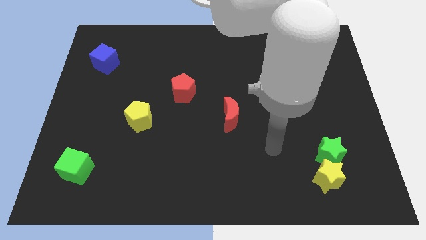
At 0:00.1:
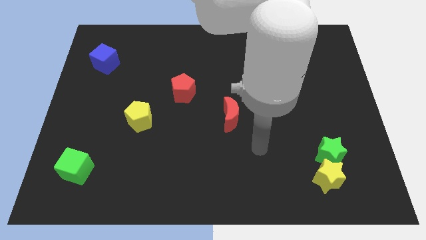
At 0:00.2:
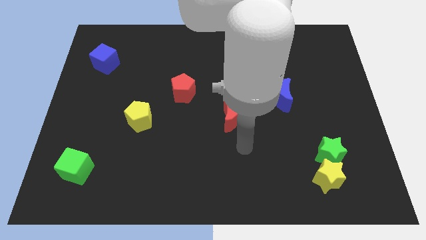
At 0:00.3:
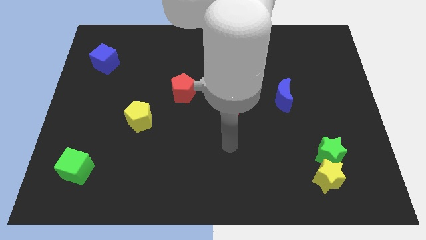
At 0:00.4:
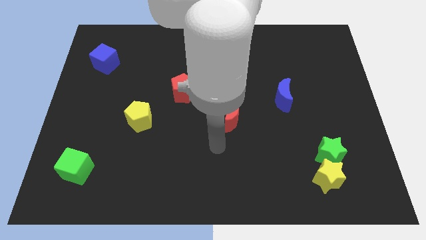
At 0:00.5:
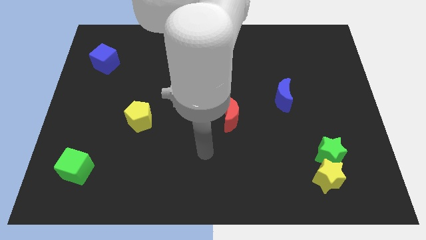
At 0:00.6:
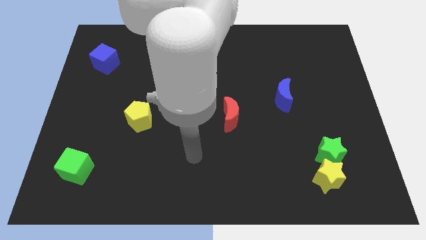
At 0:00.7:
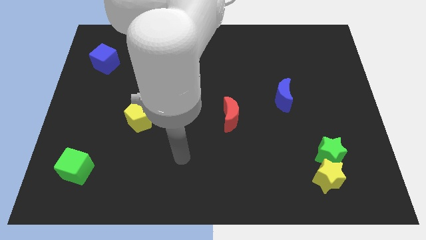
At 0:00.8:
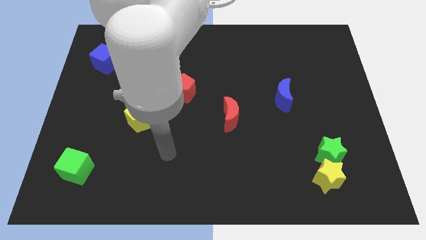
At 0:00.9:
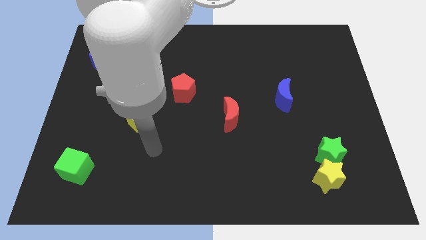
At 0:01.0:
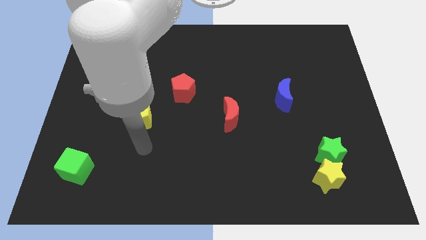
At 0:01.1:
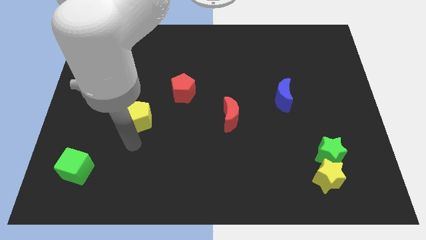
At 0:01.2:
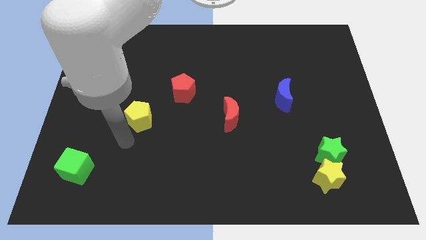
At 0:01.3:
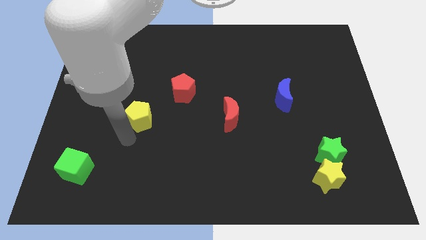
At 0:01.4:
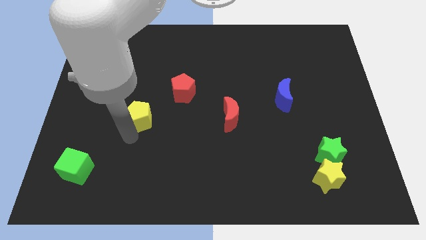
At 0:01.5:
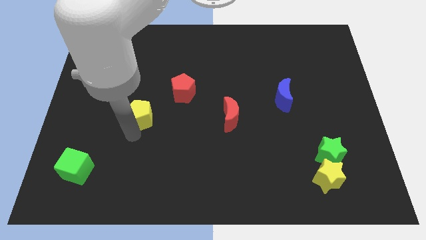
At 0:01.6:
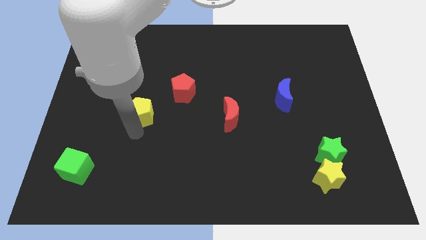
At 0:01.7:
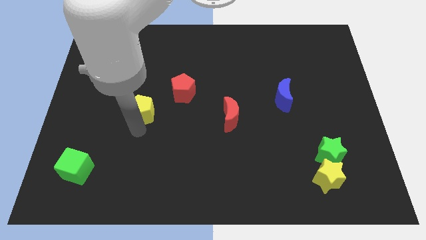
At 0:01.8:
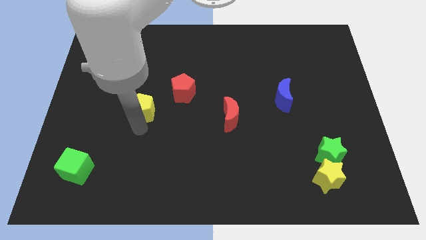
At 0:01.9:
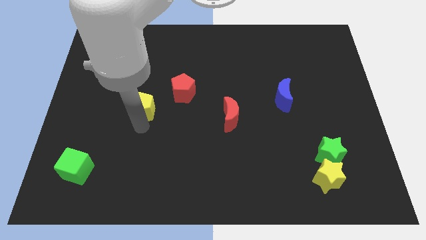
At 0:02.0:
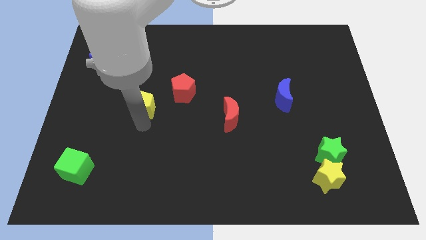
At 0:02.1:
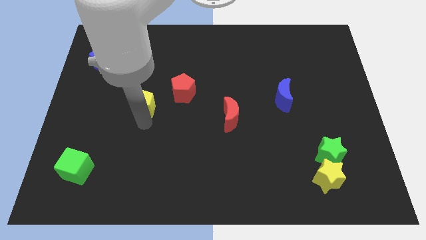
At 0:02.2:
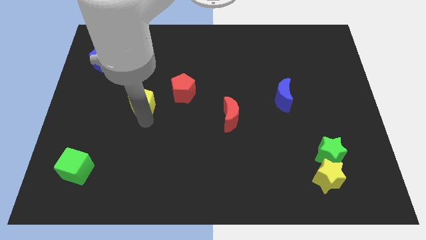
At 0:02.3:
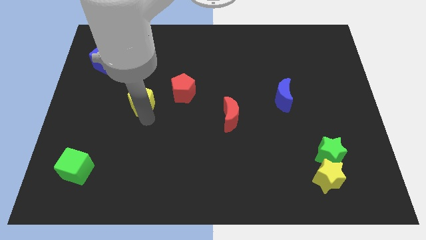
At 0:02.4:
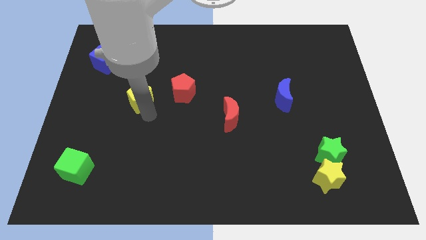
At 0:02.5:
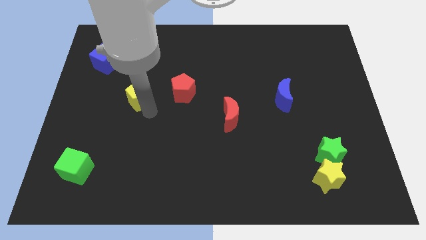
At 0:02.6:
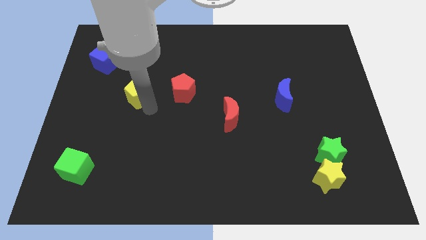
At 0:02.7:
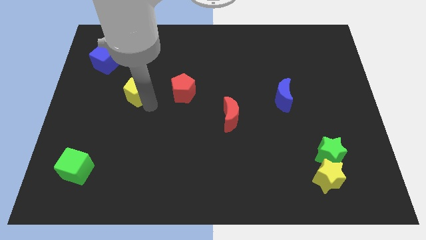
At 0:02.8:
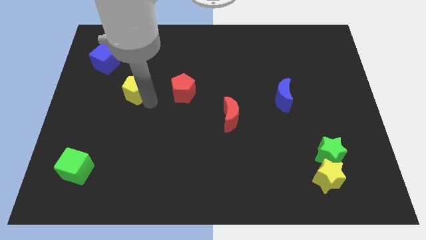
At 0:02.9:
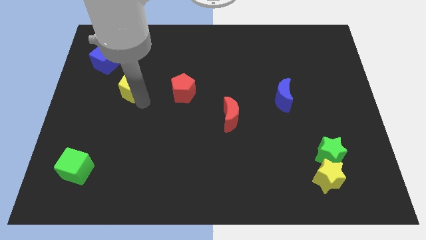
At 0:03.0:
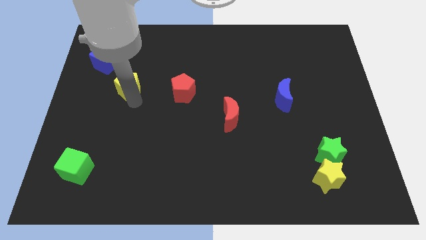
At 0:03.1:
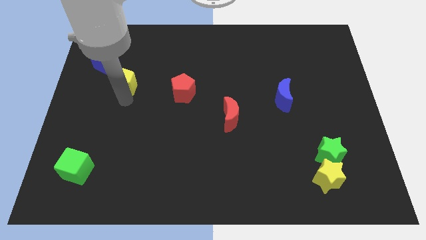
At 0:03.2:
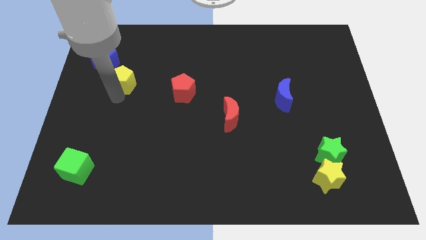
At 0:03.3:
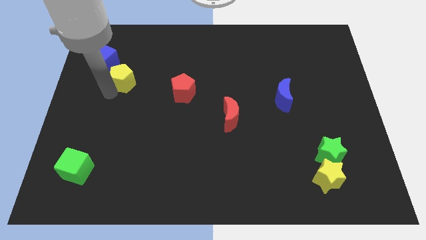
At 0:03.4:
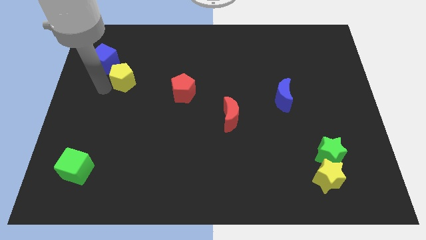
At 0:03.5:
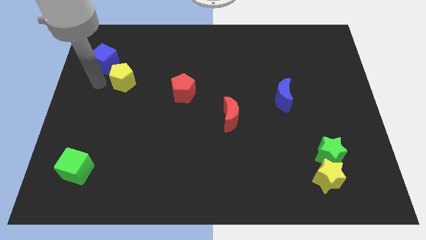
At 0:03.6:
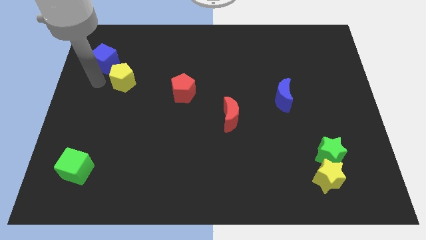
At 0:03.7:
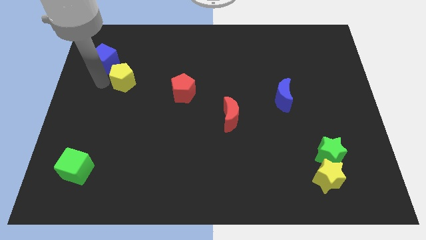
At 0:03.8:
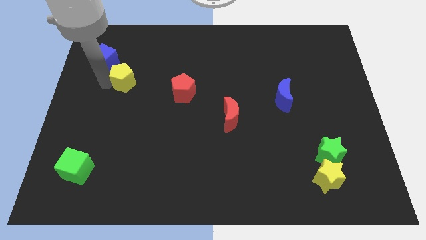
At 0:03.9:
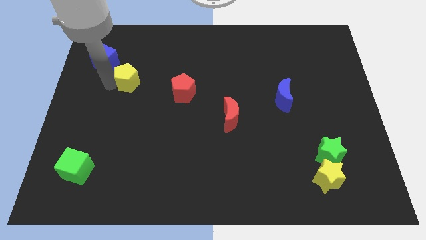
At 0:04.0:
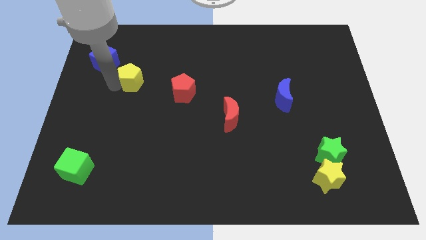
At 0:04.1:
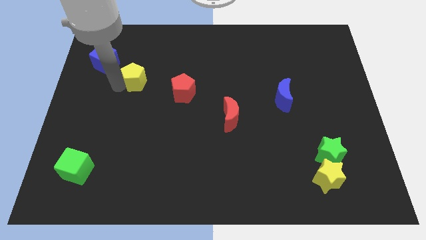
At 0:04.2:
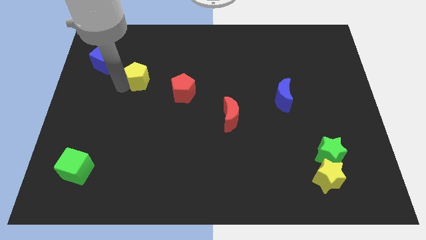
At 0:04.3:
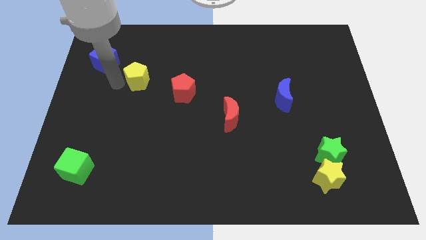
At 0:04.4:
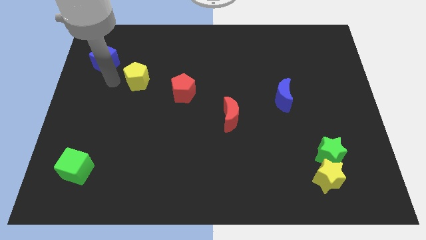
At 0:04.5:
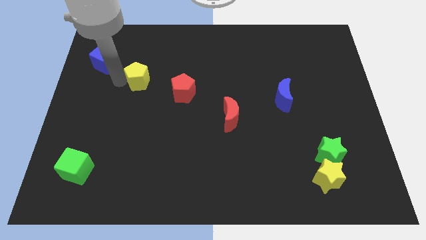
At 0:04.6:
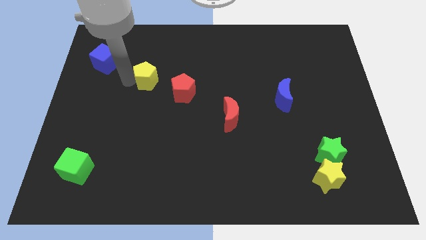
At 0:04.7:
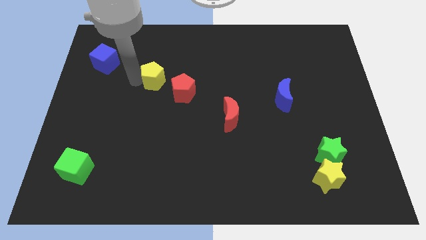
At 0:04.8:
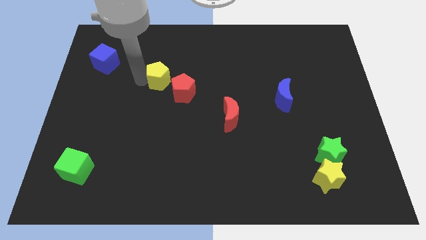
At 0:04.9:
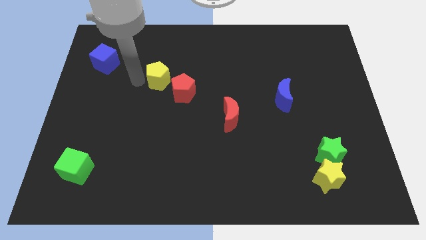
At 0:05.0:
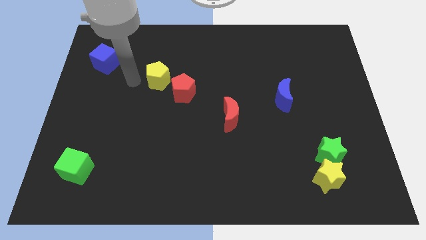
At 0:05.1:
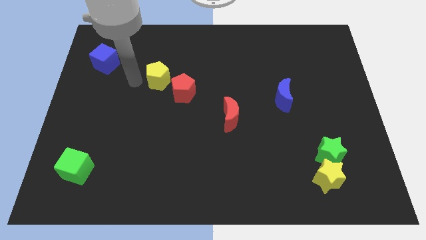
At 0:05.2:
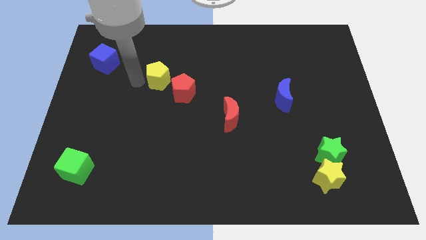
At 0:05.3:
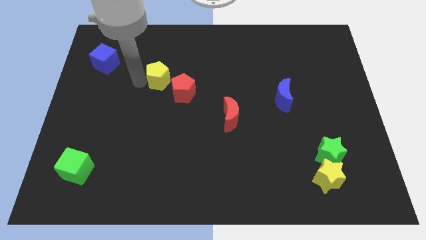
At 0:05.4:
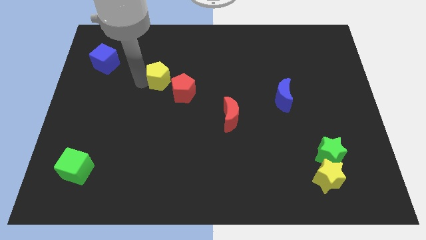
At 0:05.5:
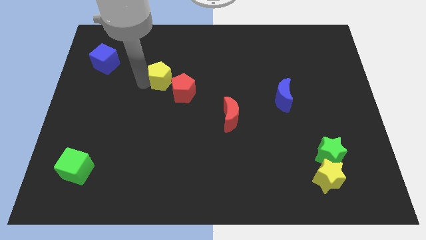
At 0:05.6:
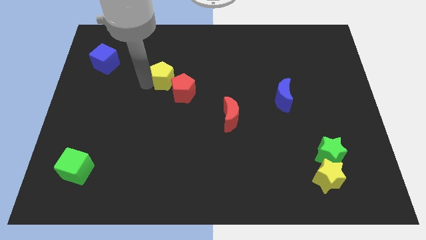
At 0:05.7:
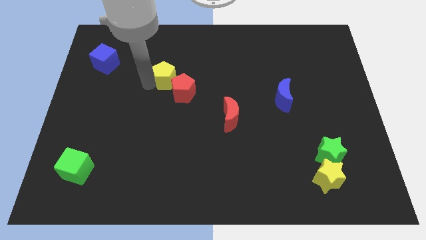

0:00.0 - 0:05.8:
push the yellow pentagon to the top side of the red pentagon
